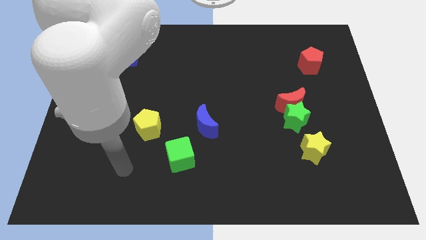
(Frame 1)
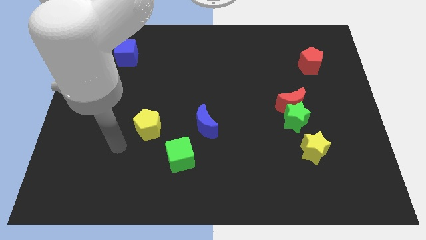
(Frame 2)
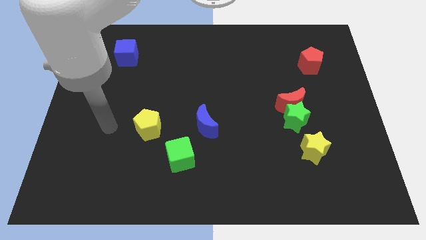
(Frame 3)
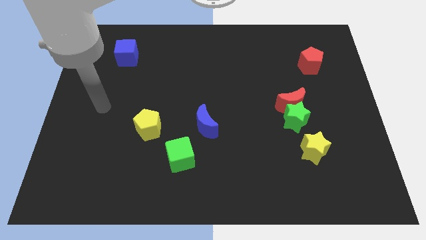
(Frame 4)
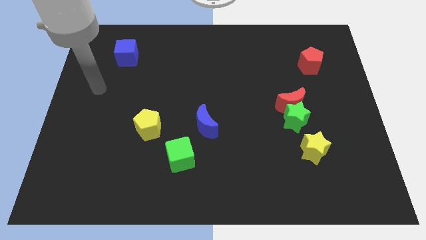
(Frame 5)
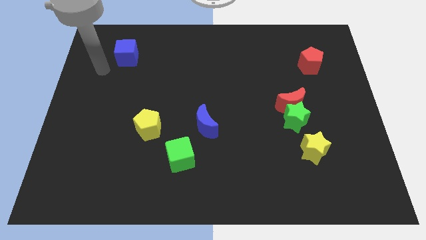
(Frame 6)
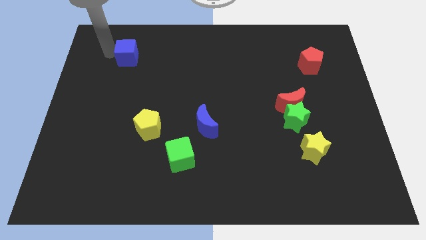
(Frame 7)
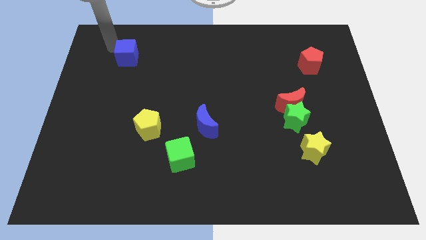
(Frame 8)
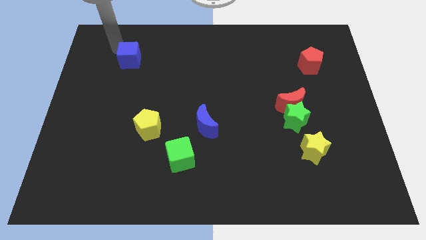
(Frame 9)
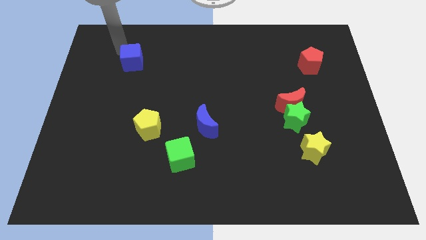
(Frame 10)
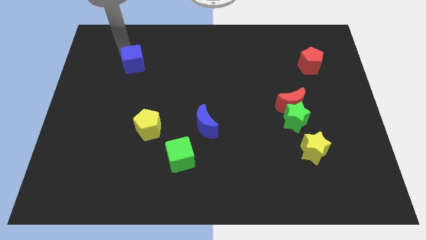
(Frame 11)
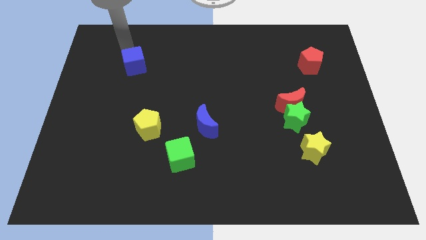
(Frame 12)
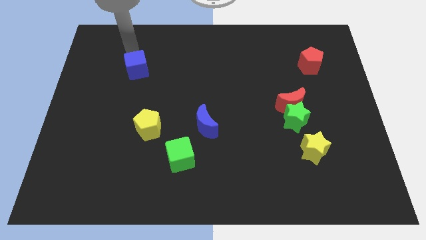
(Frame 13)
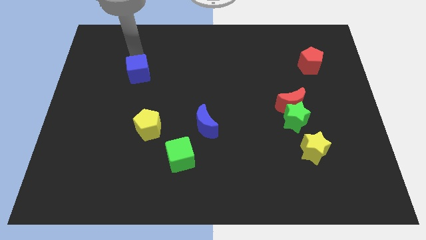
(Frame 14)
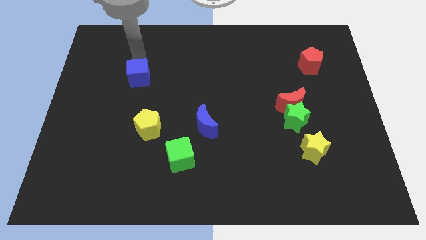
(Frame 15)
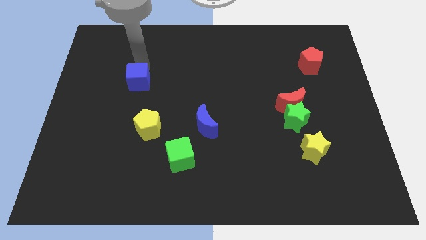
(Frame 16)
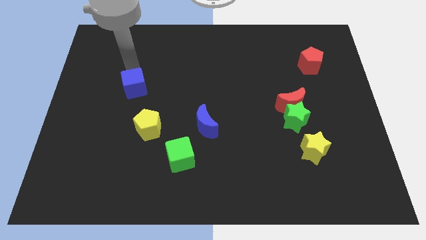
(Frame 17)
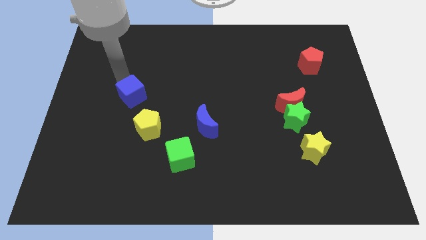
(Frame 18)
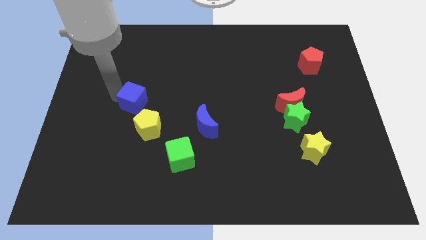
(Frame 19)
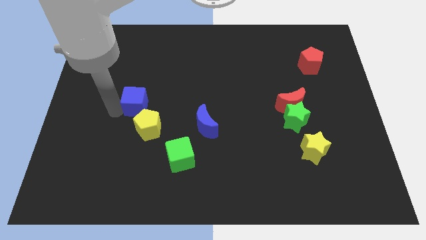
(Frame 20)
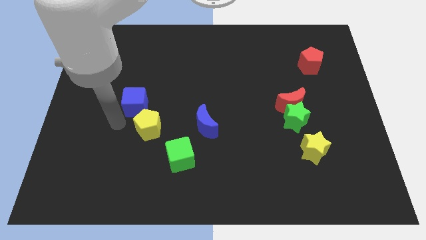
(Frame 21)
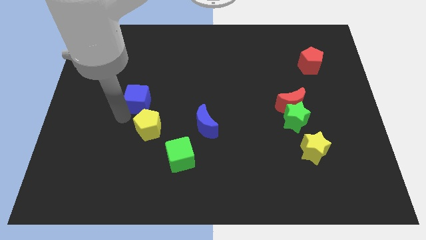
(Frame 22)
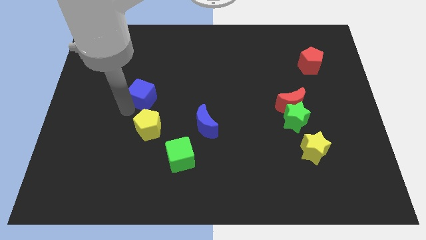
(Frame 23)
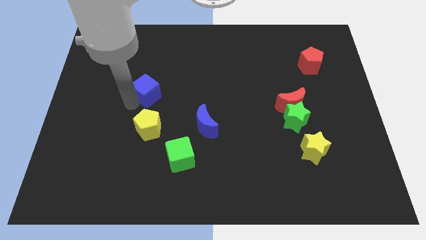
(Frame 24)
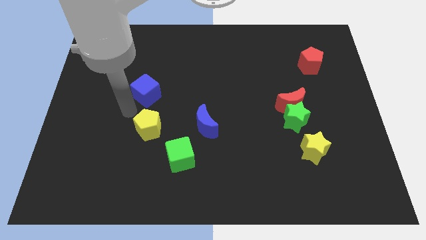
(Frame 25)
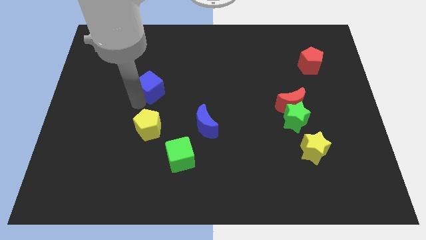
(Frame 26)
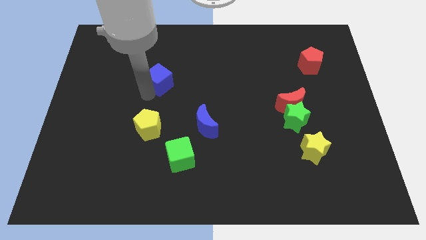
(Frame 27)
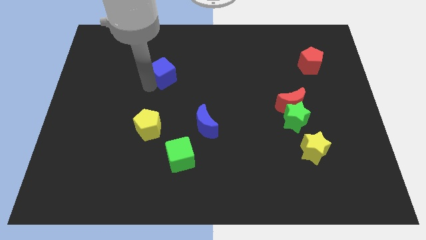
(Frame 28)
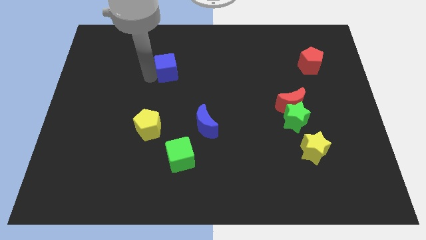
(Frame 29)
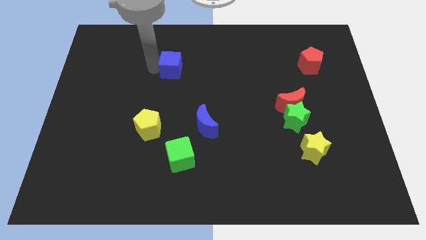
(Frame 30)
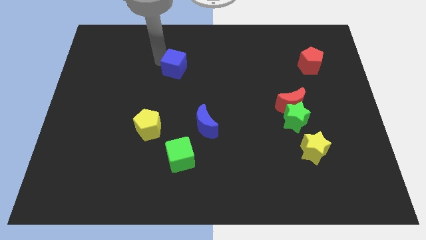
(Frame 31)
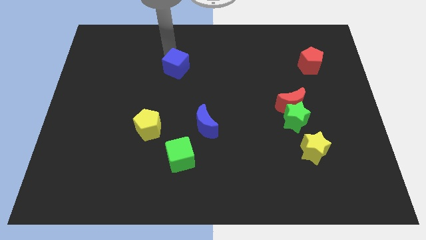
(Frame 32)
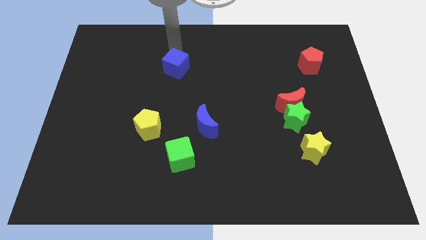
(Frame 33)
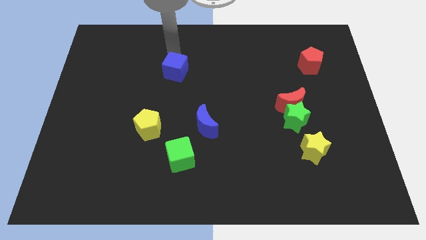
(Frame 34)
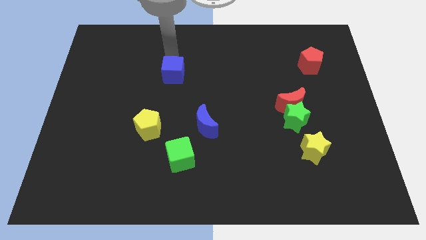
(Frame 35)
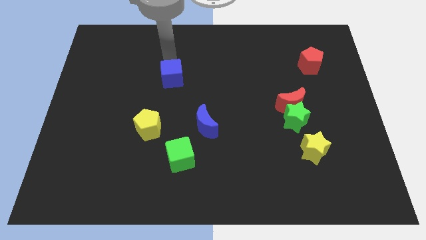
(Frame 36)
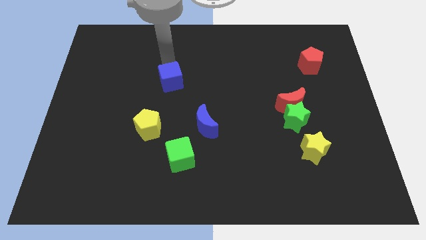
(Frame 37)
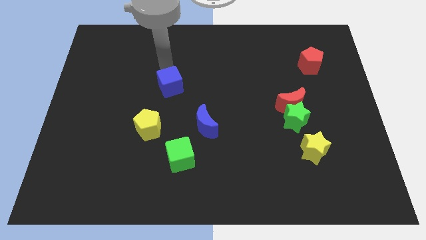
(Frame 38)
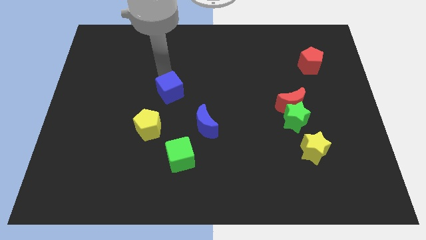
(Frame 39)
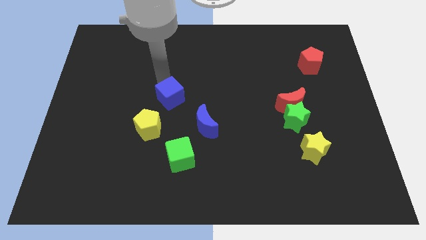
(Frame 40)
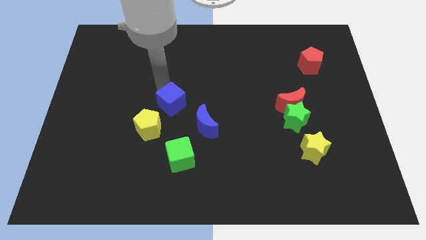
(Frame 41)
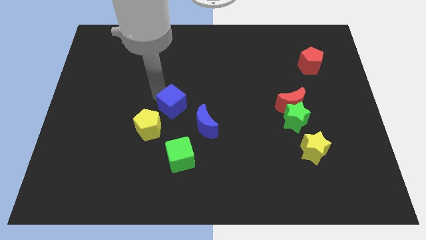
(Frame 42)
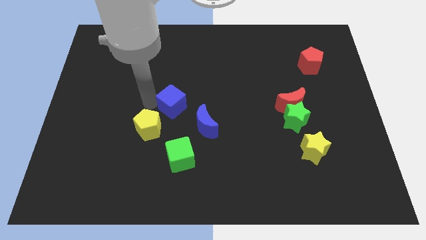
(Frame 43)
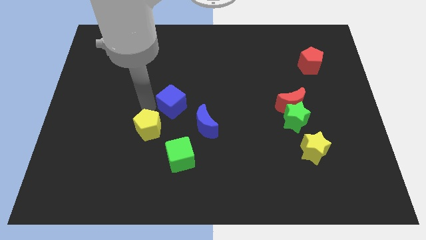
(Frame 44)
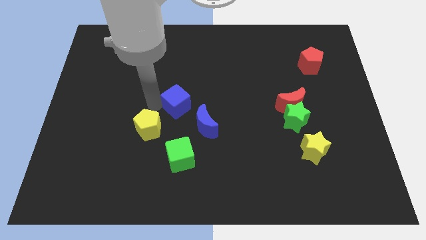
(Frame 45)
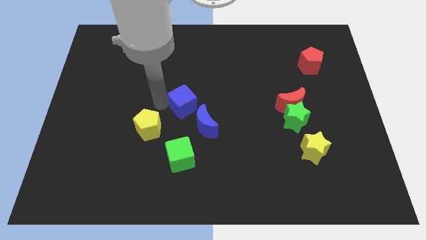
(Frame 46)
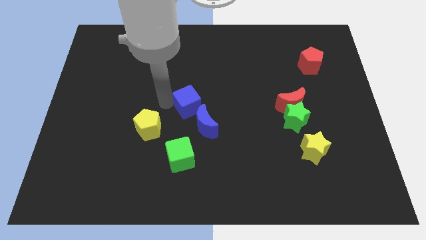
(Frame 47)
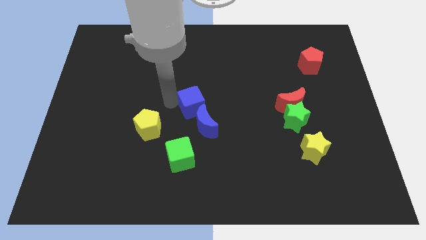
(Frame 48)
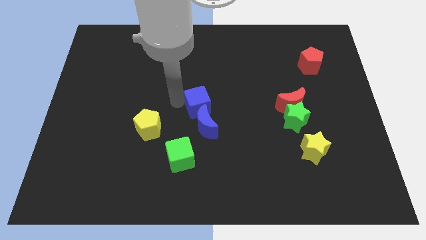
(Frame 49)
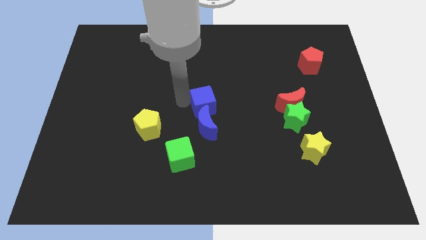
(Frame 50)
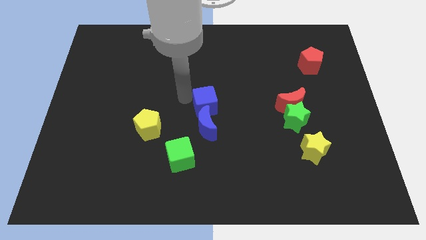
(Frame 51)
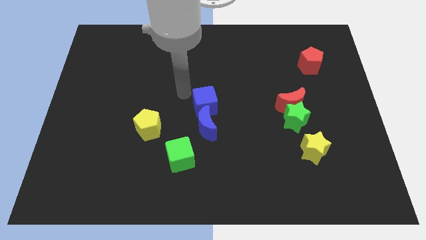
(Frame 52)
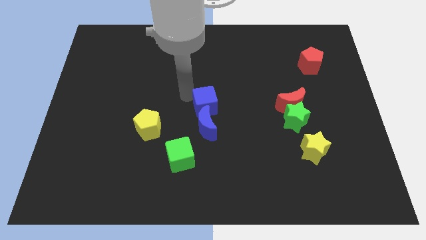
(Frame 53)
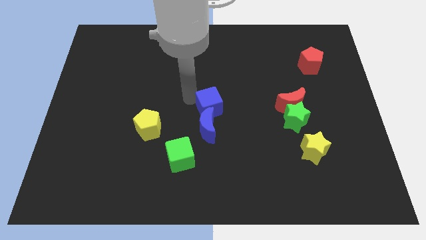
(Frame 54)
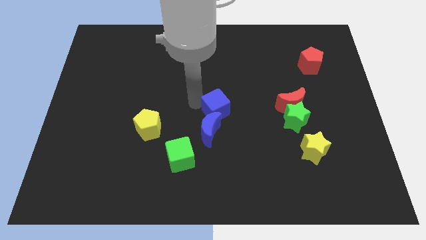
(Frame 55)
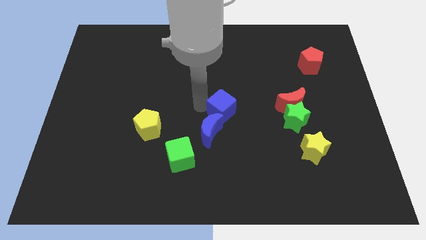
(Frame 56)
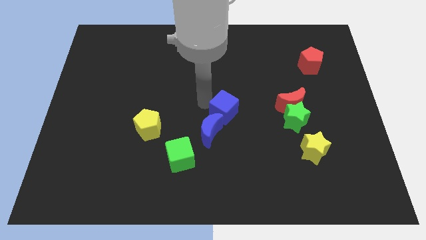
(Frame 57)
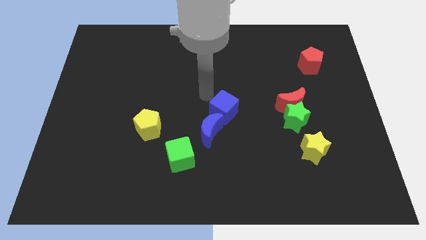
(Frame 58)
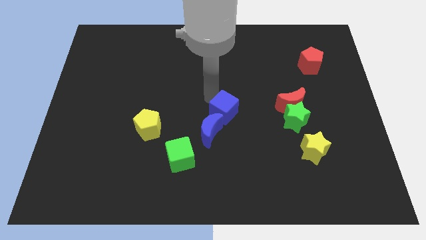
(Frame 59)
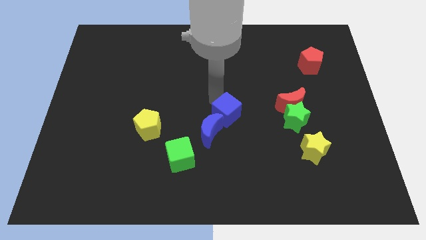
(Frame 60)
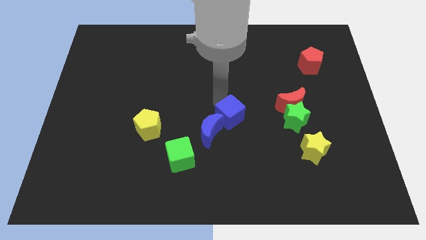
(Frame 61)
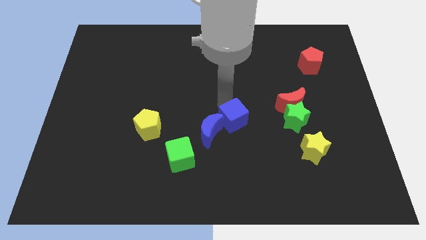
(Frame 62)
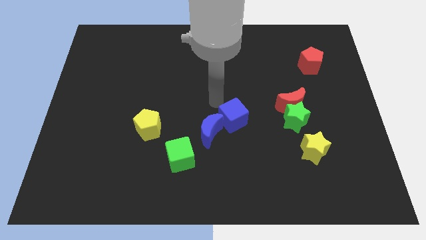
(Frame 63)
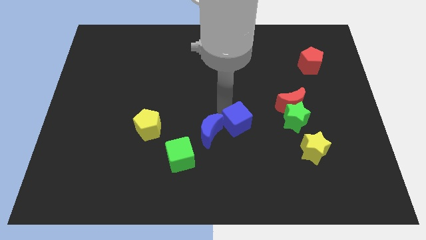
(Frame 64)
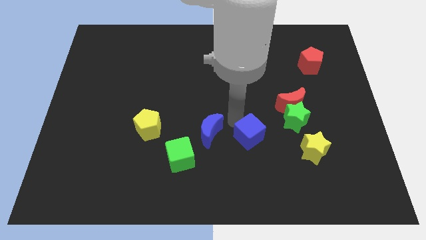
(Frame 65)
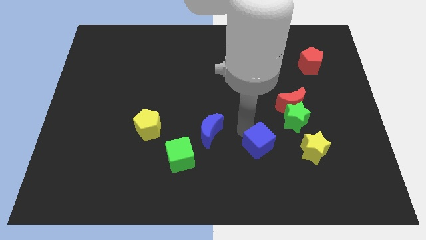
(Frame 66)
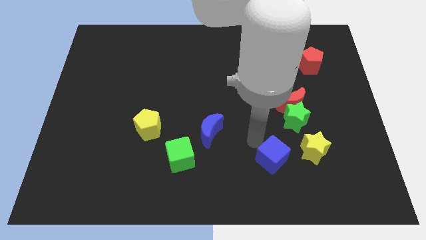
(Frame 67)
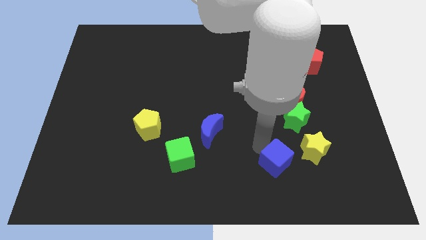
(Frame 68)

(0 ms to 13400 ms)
slide the blue cube to the bottom left of the yellow star

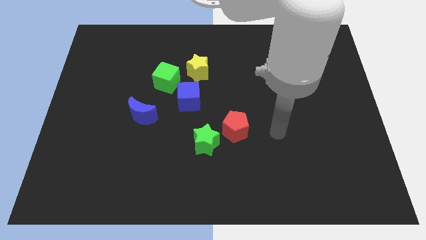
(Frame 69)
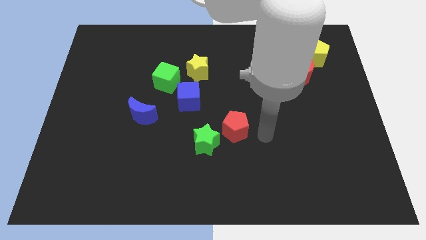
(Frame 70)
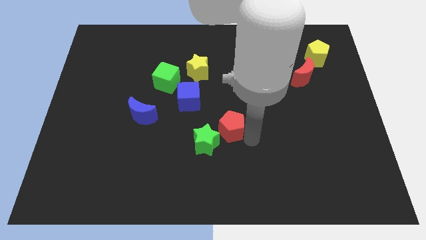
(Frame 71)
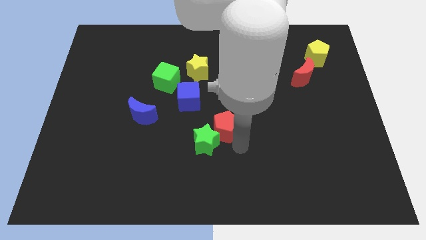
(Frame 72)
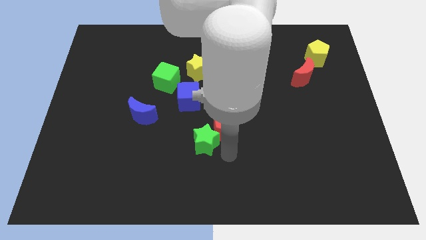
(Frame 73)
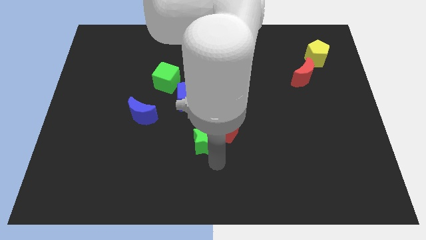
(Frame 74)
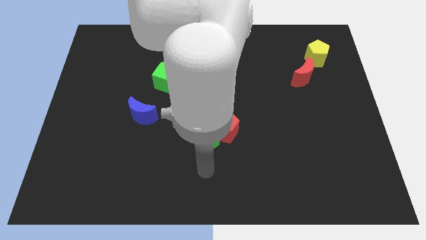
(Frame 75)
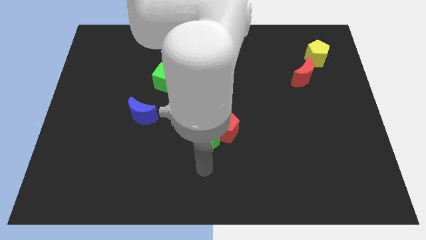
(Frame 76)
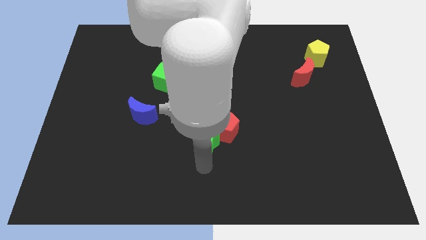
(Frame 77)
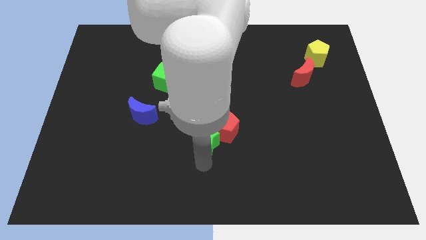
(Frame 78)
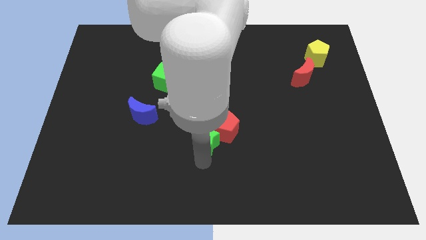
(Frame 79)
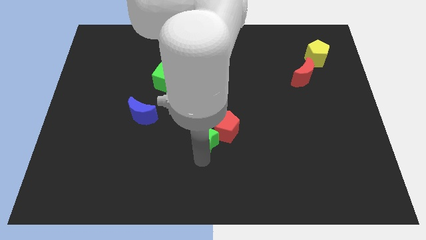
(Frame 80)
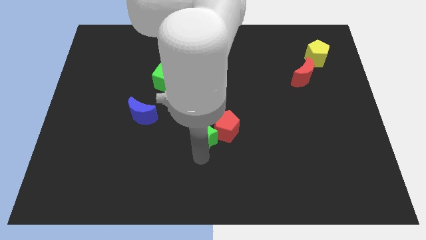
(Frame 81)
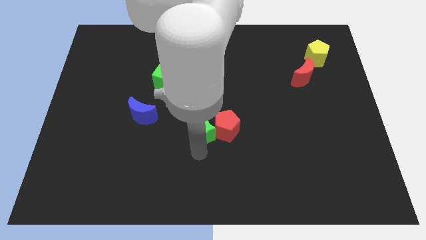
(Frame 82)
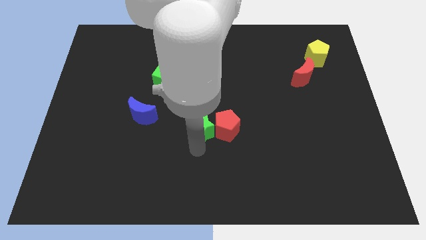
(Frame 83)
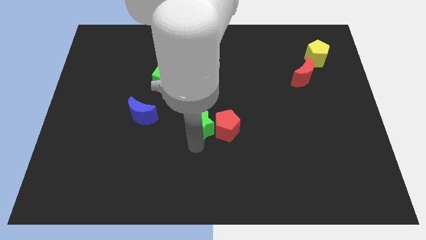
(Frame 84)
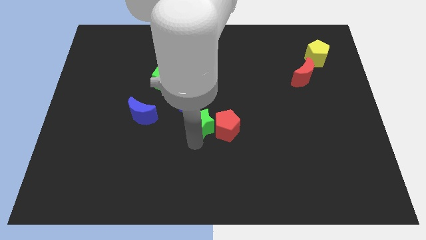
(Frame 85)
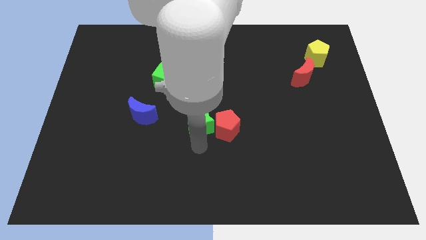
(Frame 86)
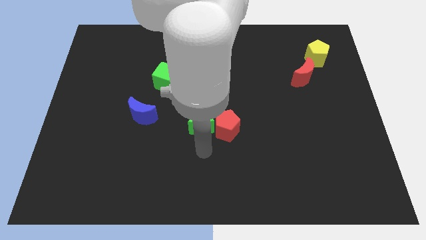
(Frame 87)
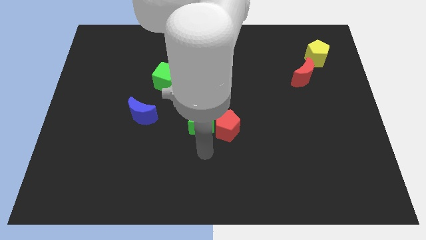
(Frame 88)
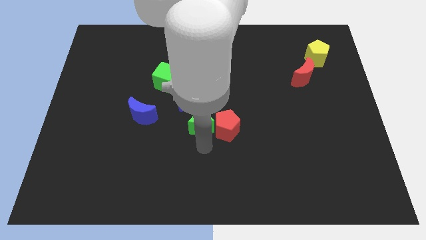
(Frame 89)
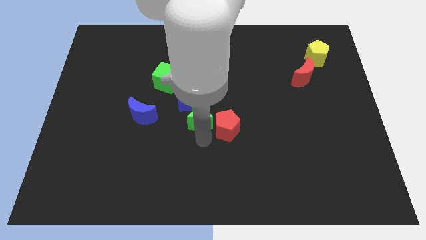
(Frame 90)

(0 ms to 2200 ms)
move the green star below the yellow star
